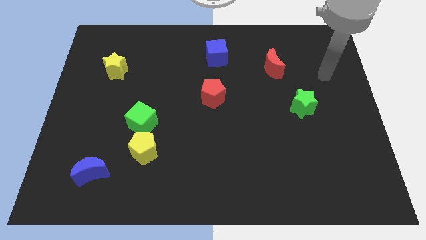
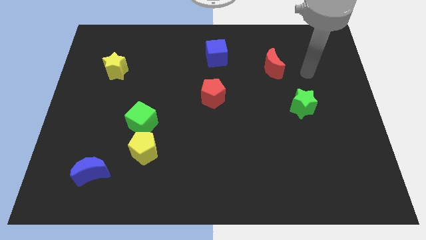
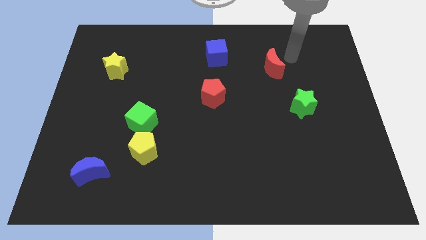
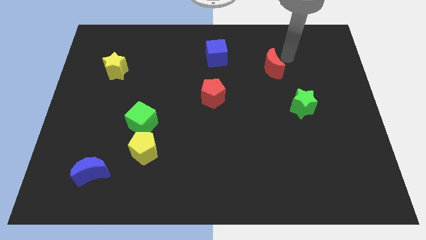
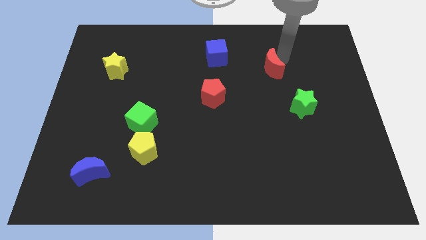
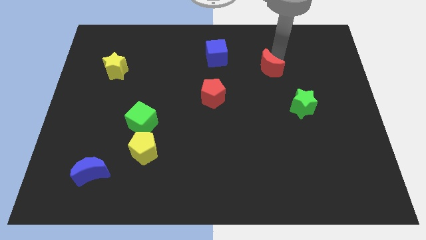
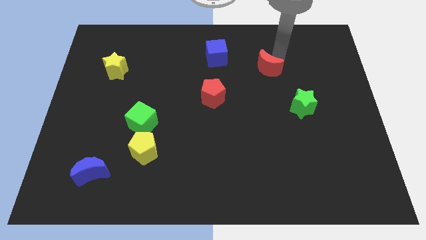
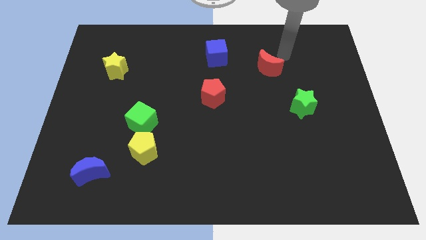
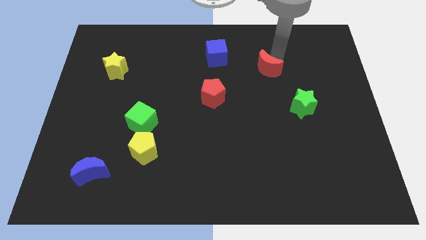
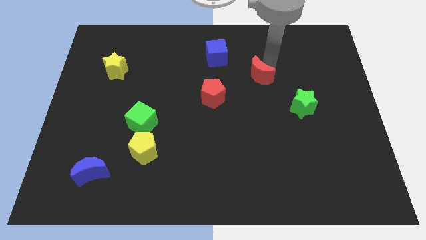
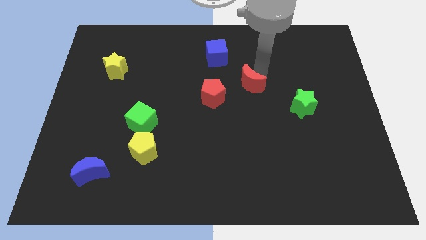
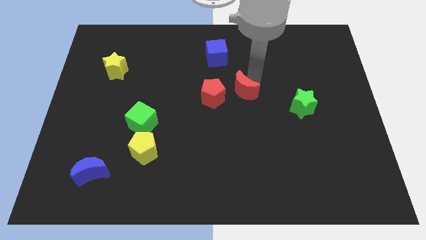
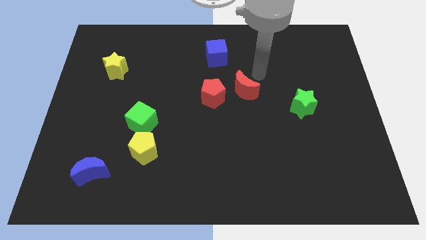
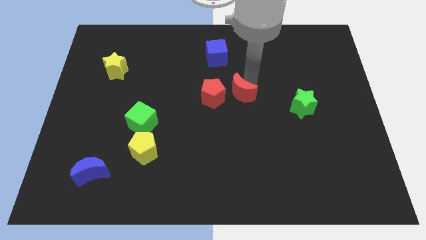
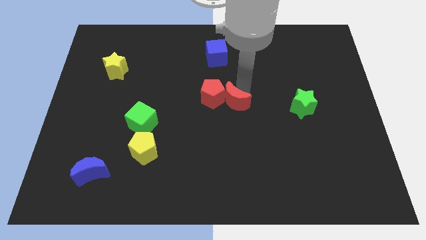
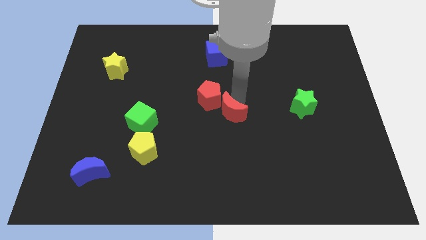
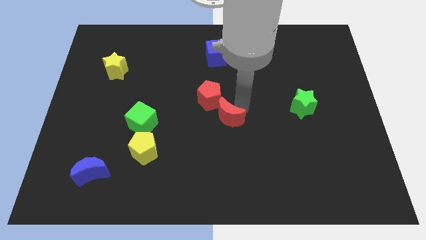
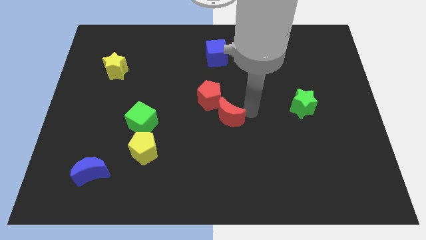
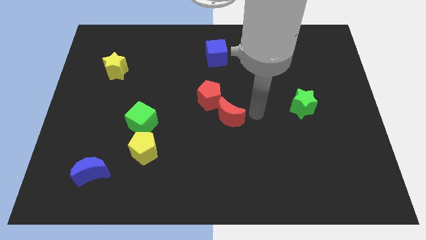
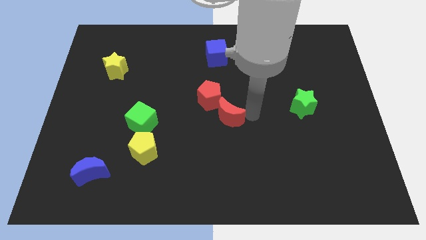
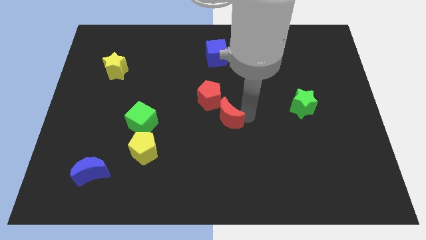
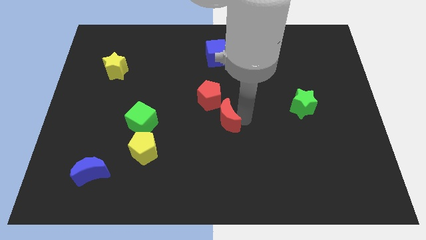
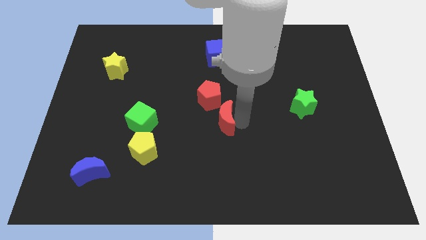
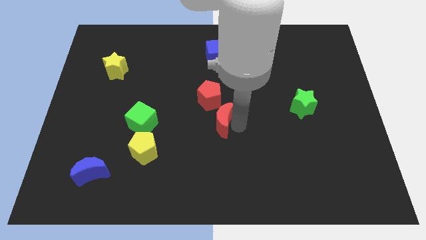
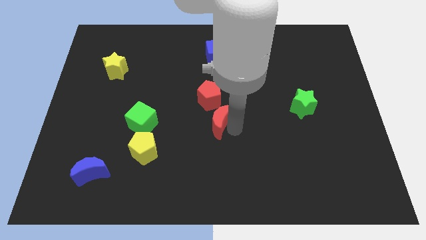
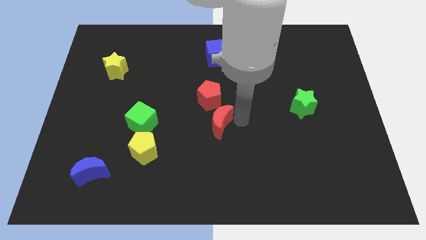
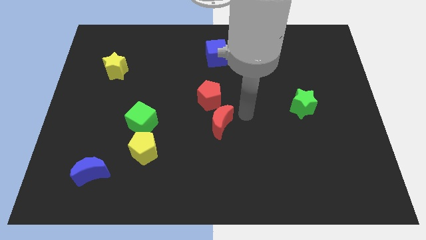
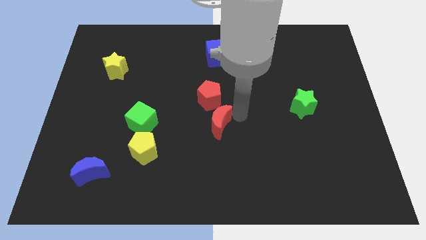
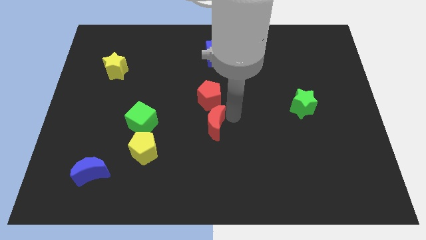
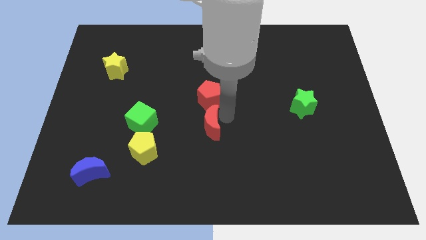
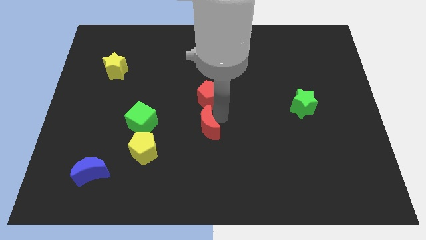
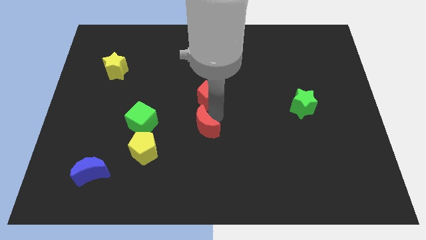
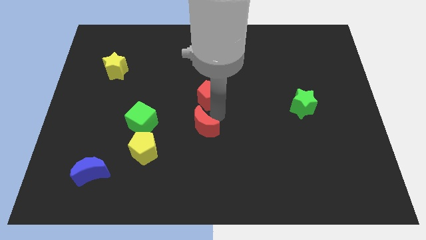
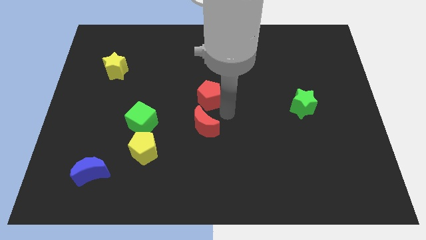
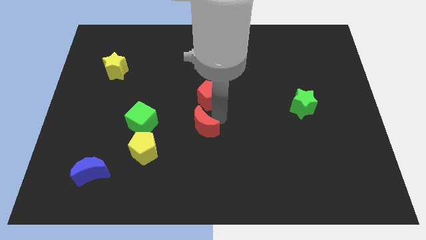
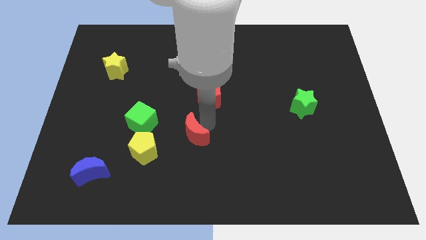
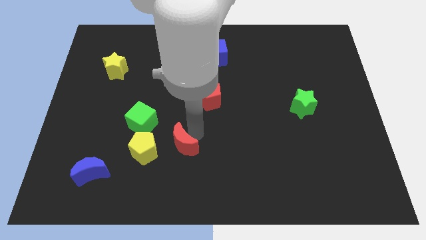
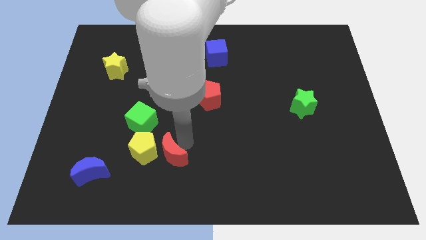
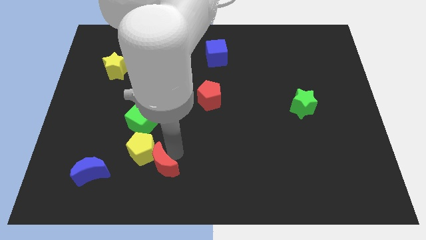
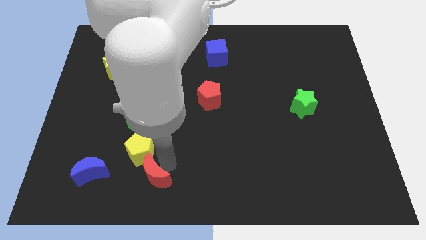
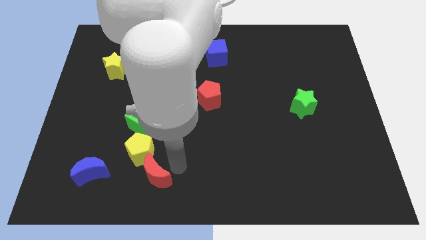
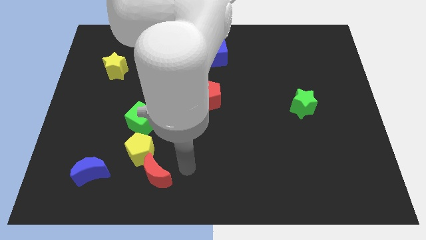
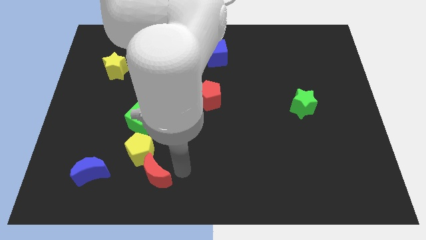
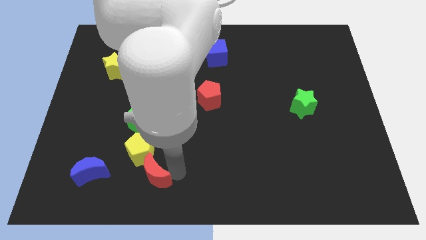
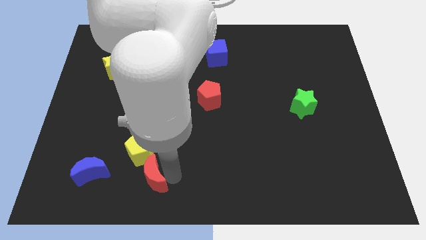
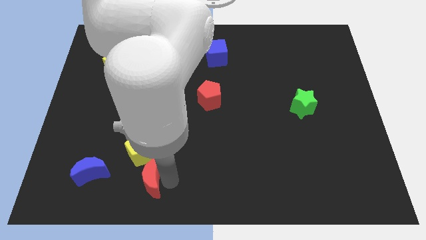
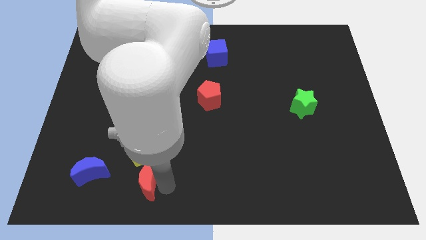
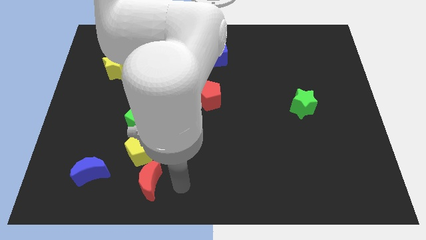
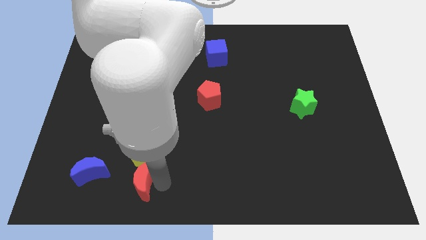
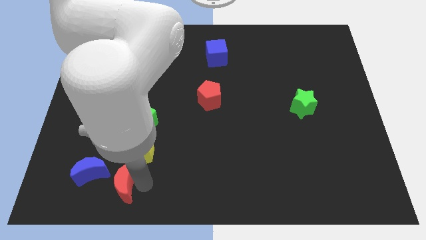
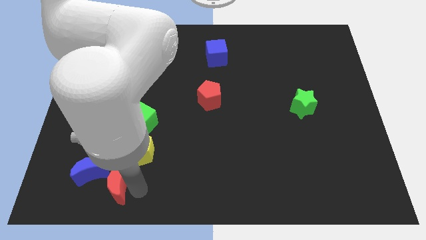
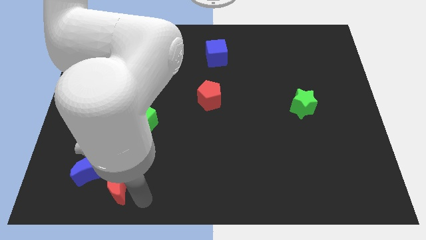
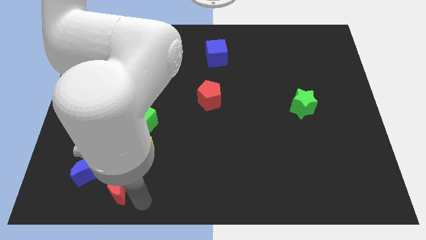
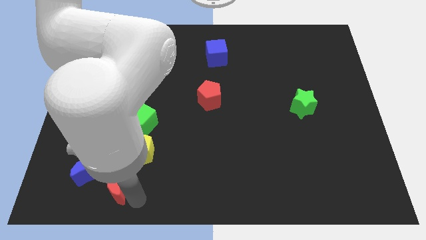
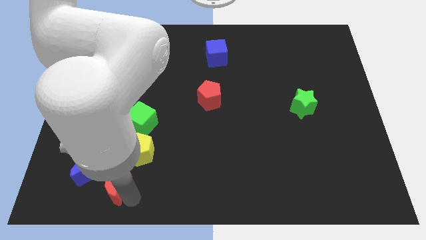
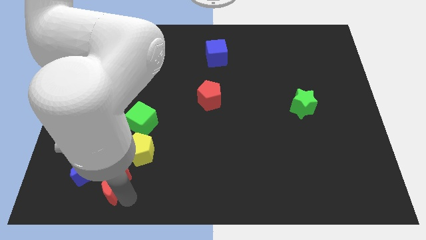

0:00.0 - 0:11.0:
slide the red moon towards the blue moon
